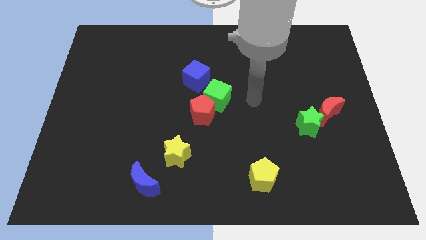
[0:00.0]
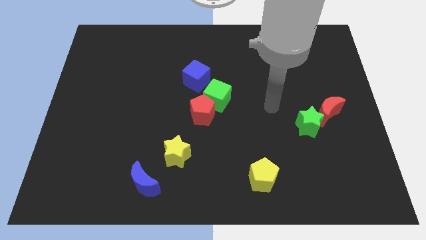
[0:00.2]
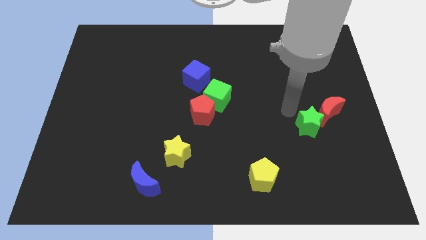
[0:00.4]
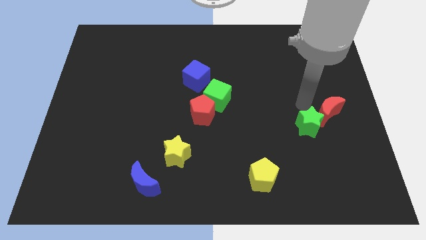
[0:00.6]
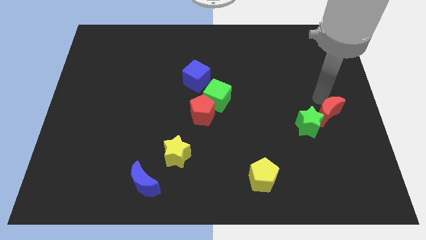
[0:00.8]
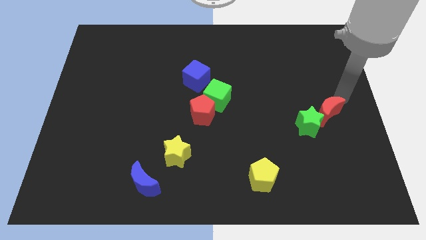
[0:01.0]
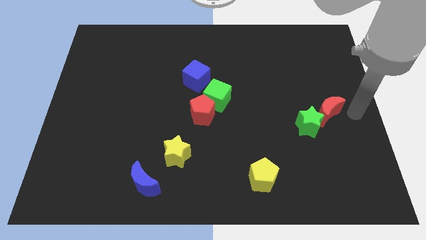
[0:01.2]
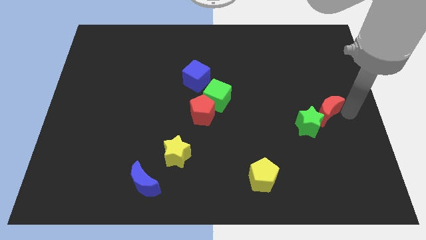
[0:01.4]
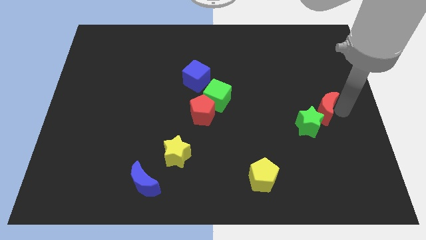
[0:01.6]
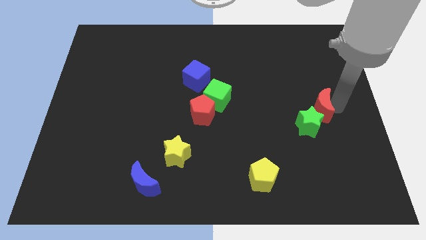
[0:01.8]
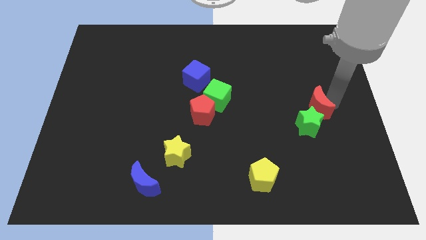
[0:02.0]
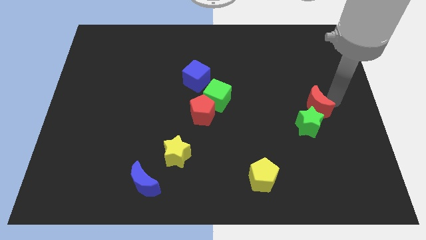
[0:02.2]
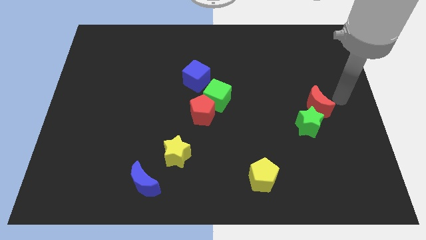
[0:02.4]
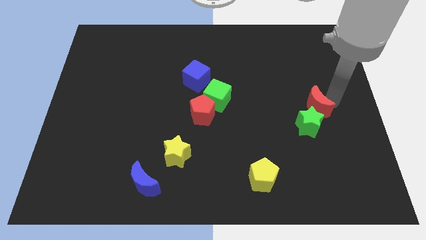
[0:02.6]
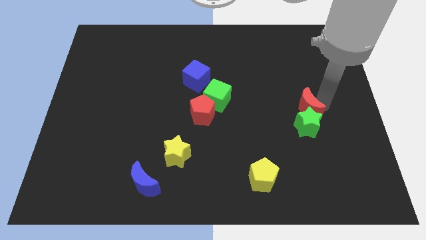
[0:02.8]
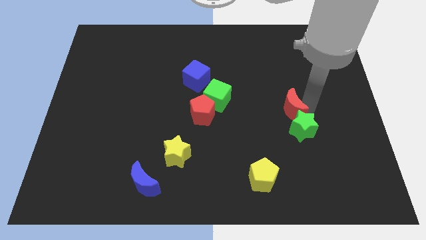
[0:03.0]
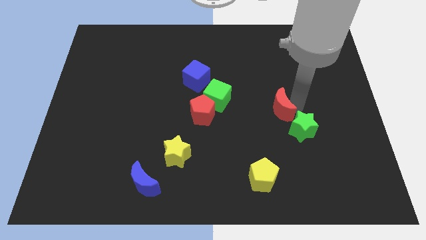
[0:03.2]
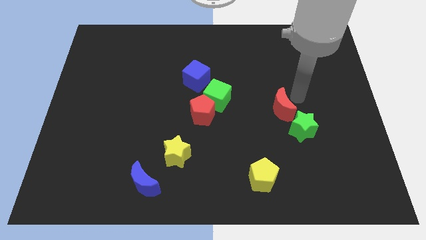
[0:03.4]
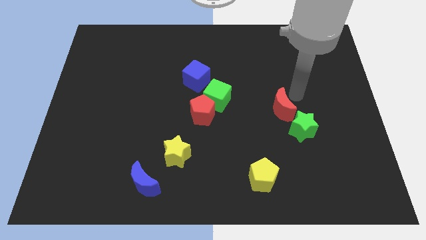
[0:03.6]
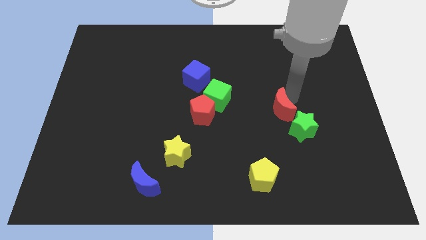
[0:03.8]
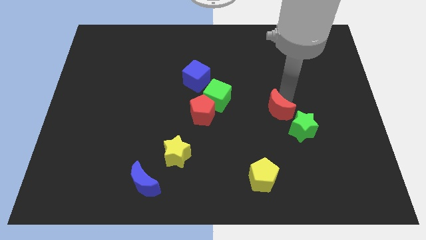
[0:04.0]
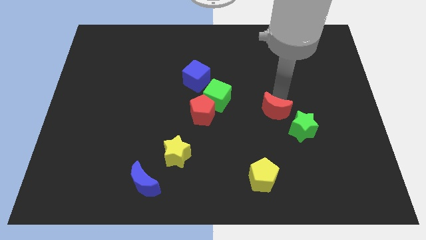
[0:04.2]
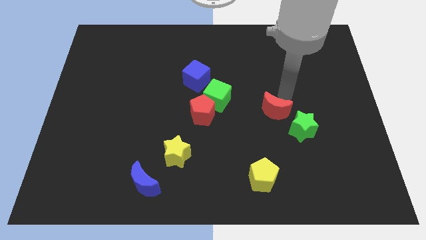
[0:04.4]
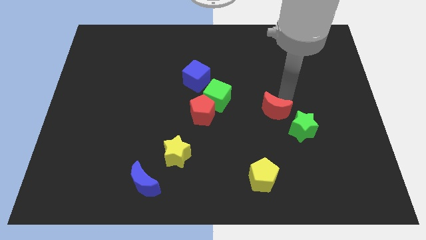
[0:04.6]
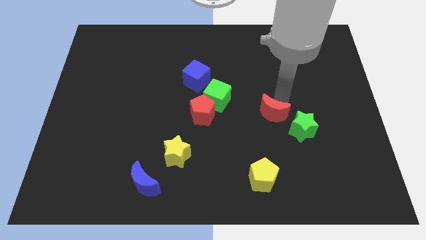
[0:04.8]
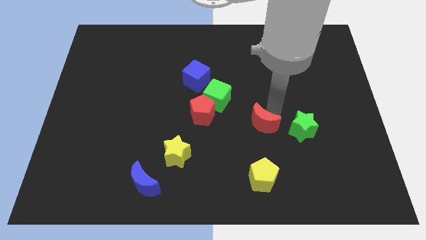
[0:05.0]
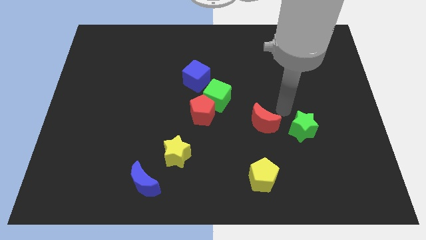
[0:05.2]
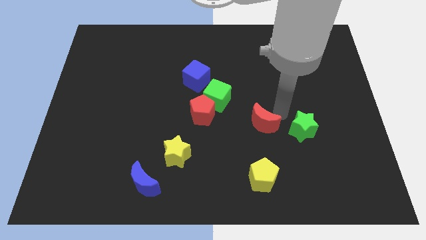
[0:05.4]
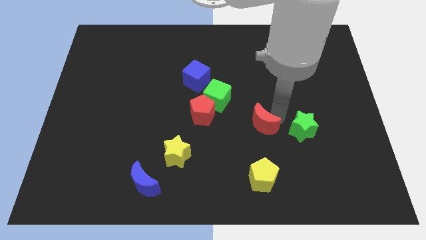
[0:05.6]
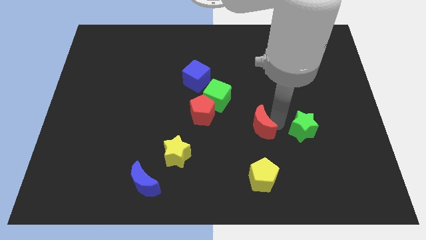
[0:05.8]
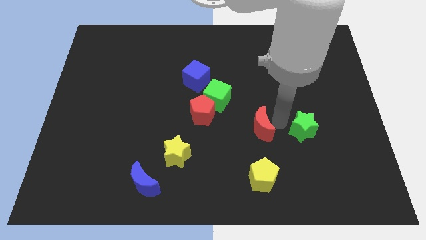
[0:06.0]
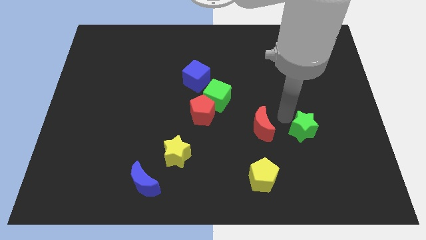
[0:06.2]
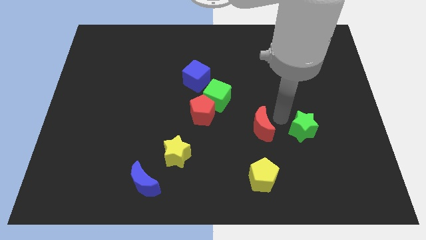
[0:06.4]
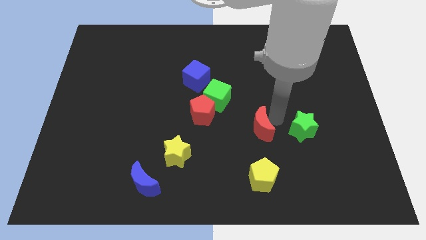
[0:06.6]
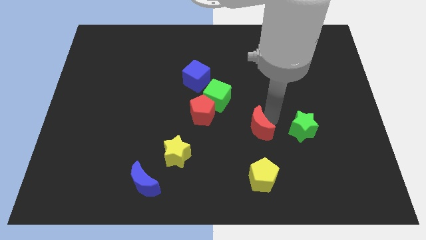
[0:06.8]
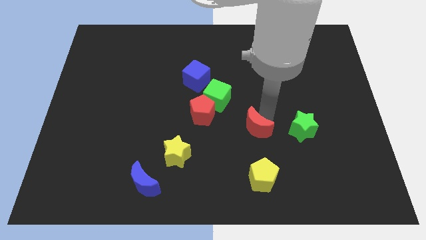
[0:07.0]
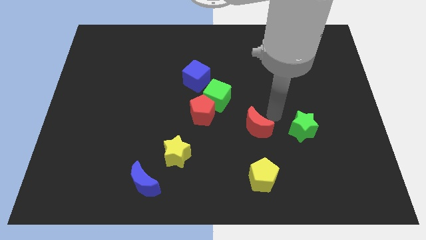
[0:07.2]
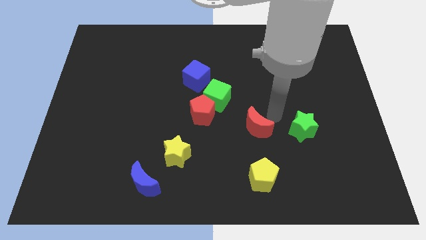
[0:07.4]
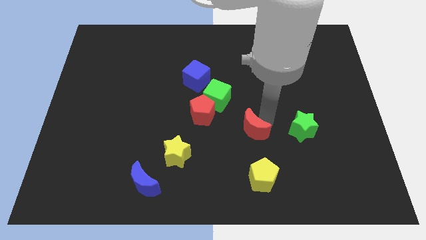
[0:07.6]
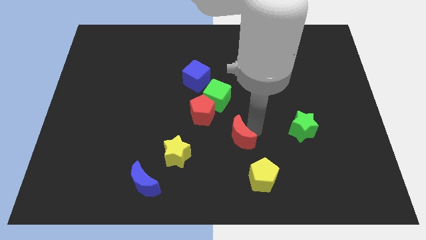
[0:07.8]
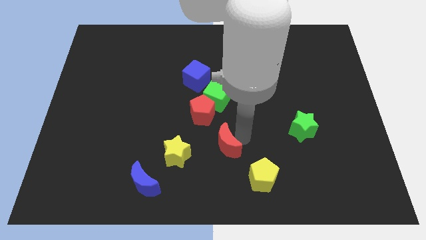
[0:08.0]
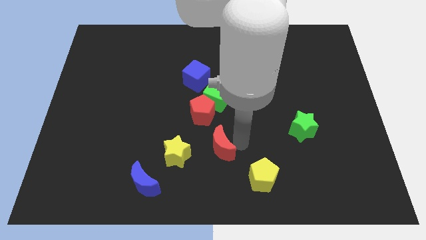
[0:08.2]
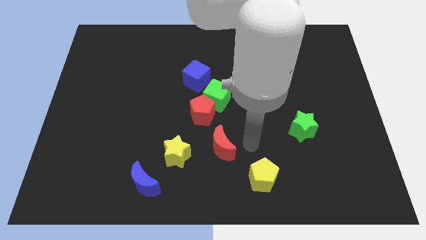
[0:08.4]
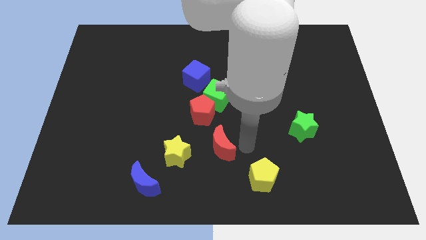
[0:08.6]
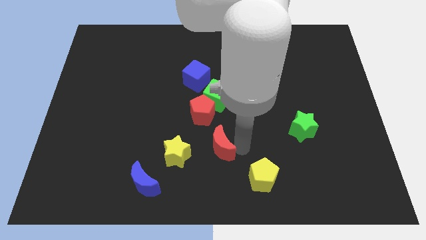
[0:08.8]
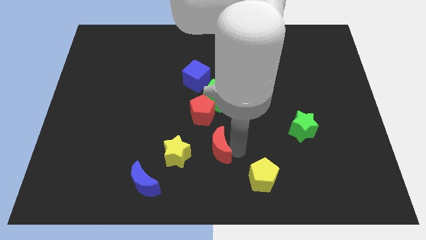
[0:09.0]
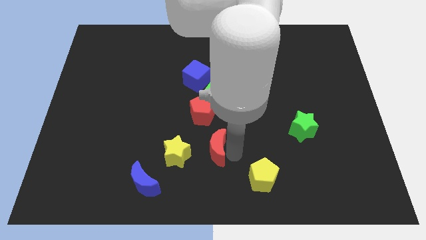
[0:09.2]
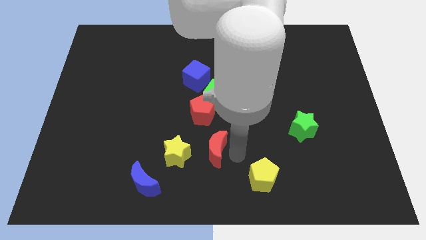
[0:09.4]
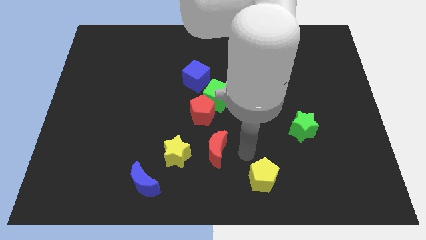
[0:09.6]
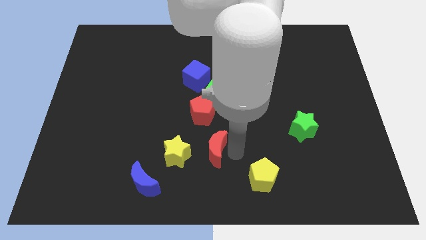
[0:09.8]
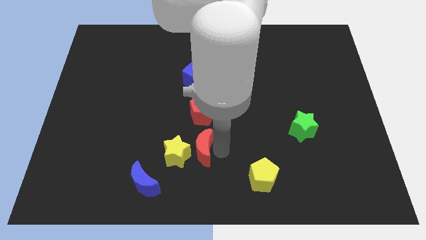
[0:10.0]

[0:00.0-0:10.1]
push the red moon towards the yellow star

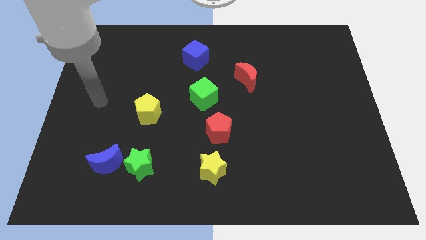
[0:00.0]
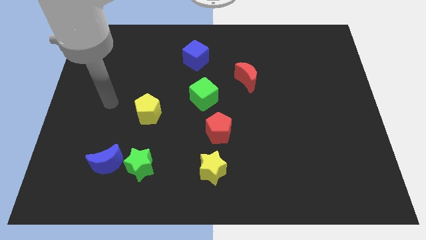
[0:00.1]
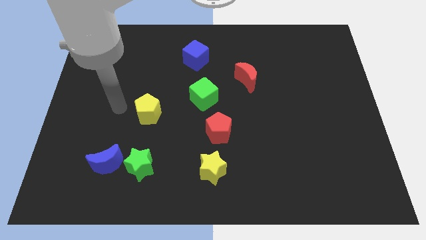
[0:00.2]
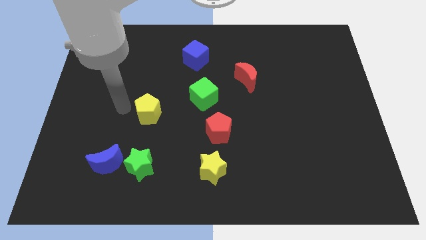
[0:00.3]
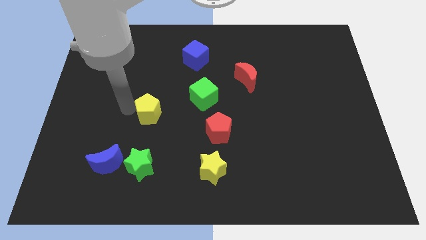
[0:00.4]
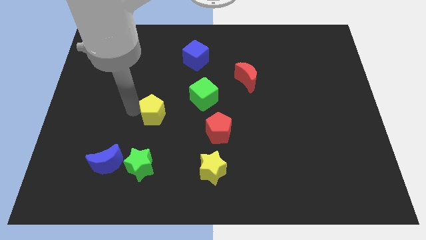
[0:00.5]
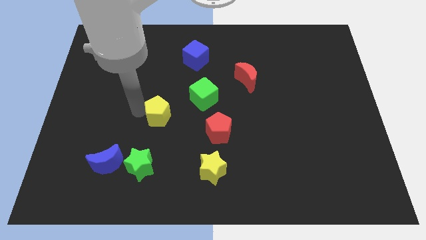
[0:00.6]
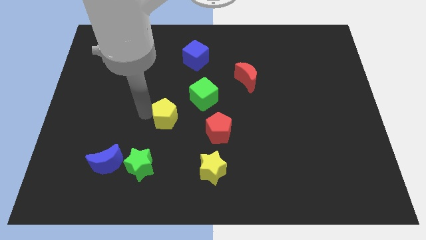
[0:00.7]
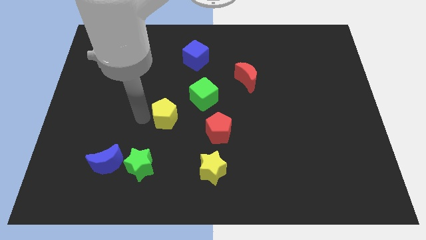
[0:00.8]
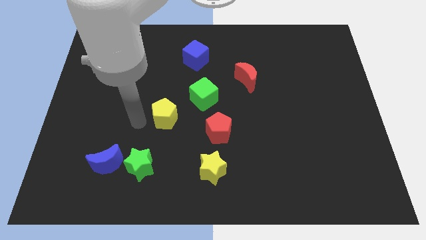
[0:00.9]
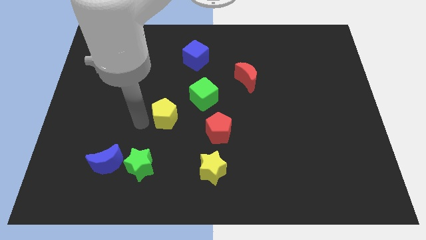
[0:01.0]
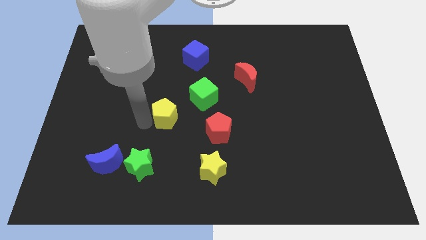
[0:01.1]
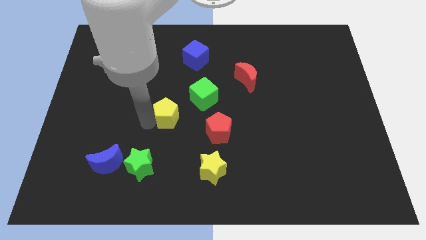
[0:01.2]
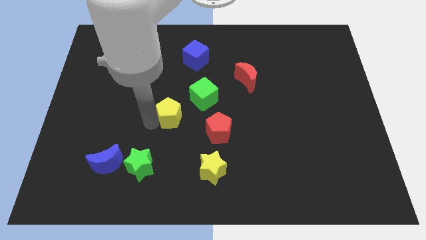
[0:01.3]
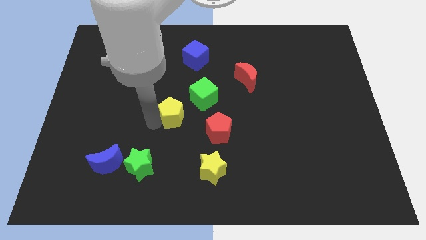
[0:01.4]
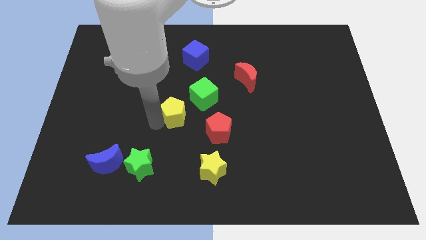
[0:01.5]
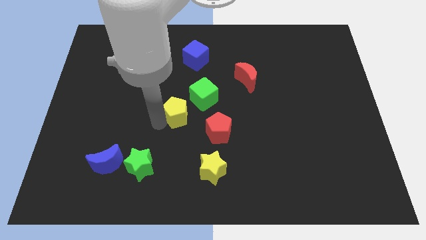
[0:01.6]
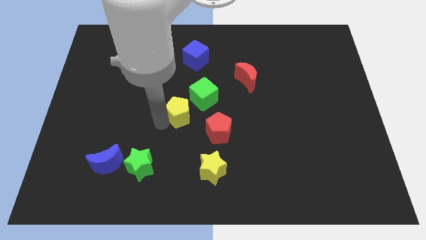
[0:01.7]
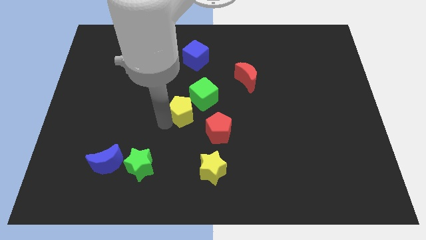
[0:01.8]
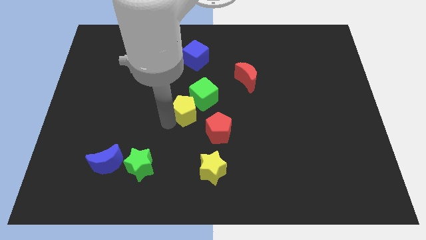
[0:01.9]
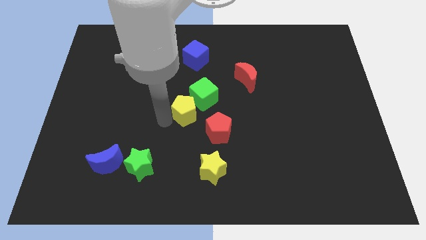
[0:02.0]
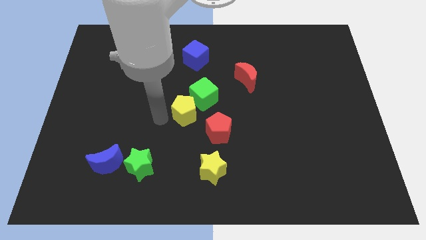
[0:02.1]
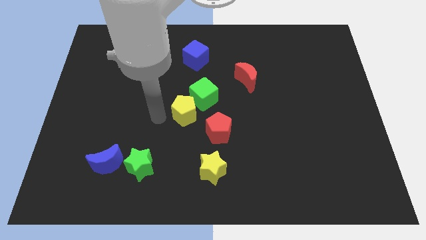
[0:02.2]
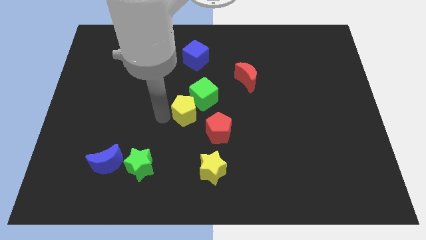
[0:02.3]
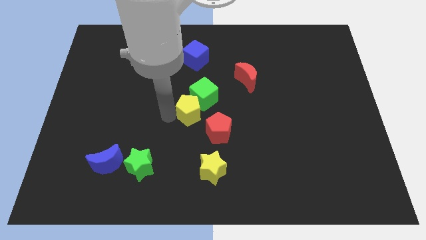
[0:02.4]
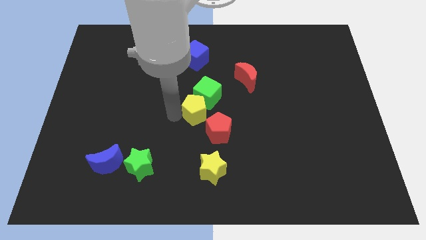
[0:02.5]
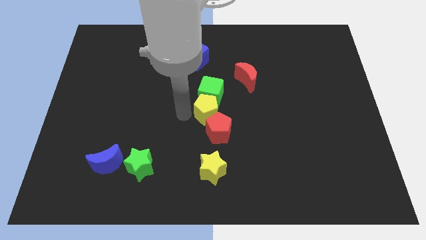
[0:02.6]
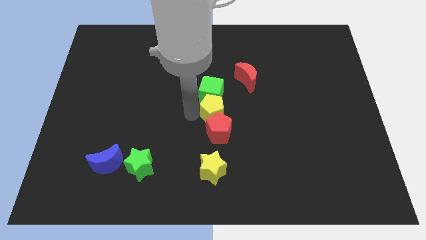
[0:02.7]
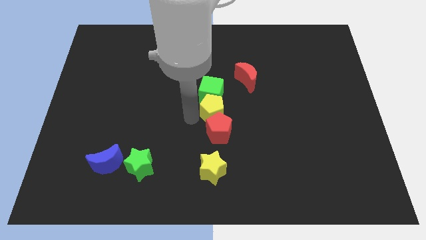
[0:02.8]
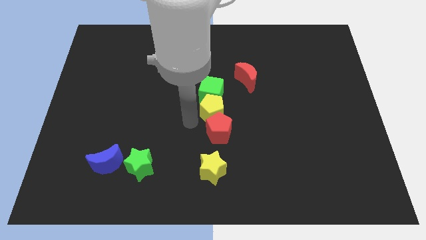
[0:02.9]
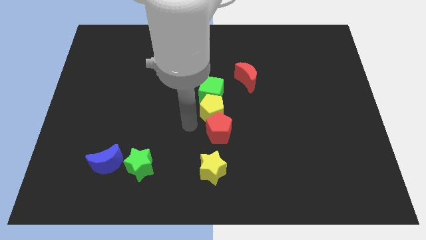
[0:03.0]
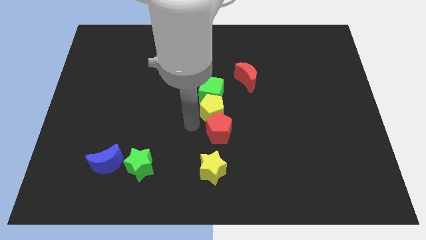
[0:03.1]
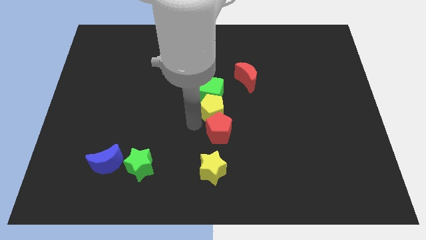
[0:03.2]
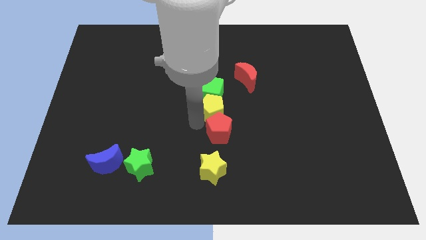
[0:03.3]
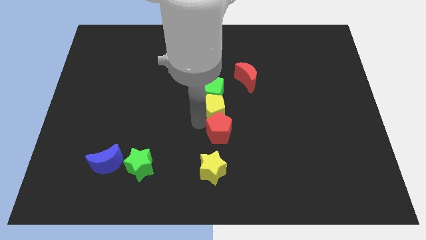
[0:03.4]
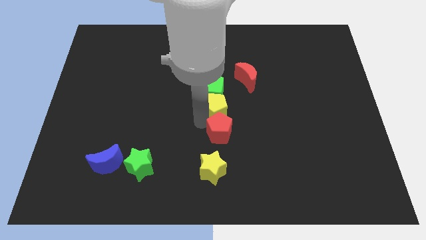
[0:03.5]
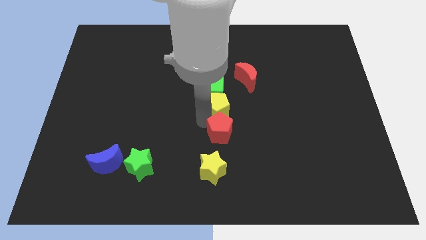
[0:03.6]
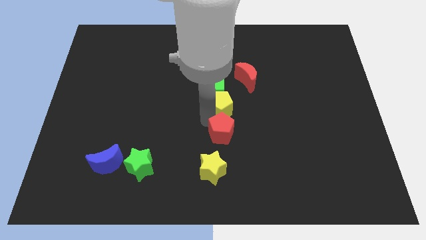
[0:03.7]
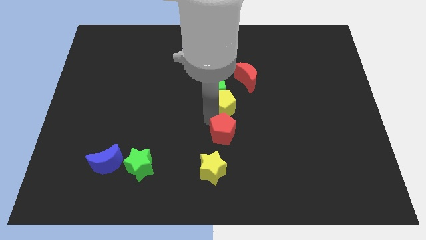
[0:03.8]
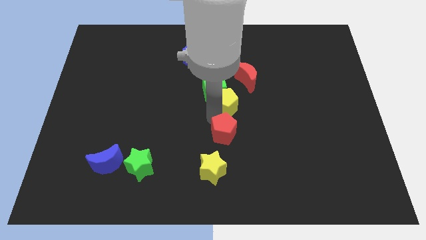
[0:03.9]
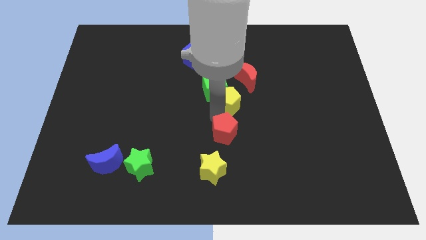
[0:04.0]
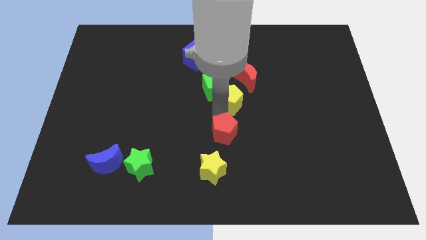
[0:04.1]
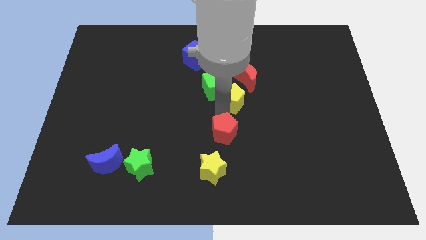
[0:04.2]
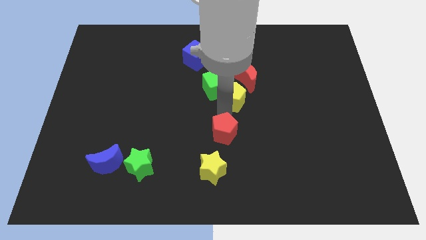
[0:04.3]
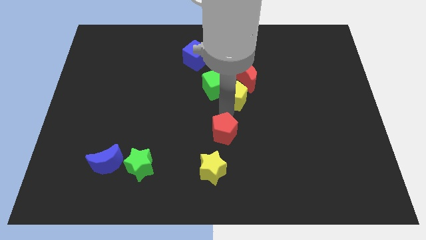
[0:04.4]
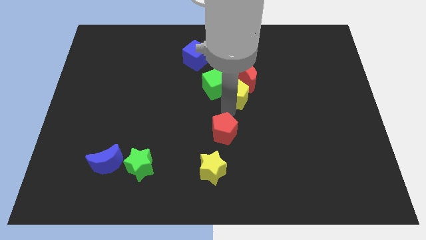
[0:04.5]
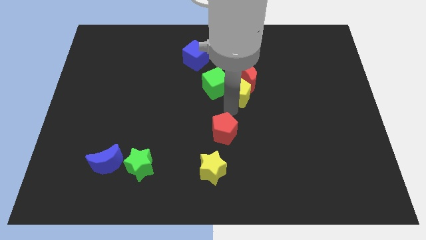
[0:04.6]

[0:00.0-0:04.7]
slide the yellow pentagon close to the red moon
